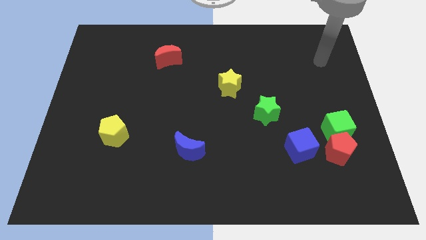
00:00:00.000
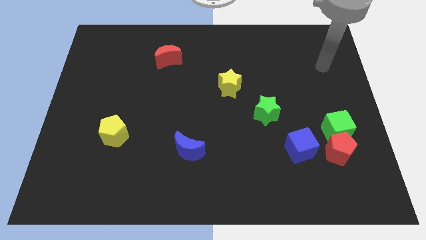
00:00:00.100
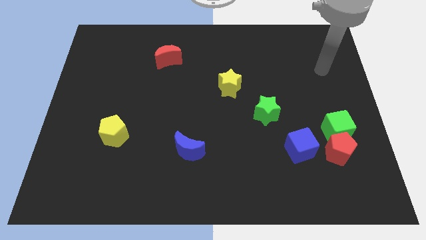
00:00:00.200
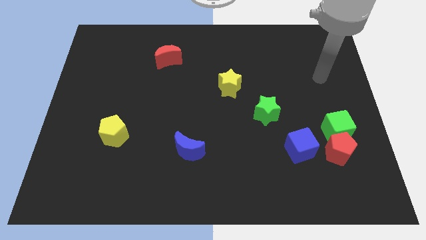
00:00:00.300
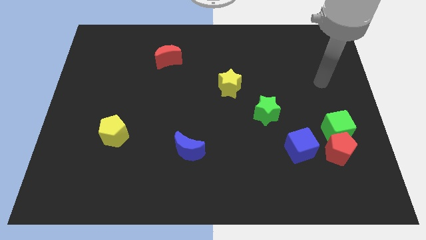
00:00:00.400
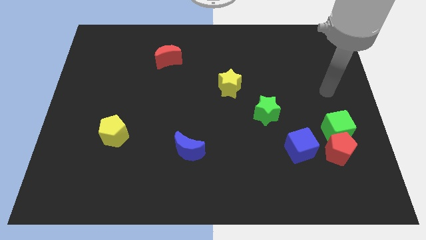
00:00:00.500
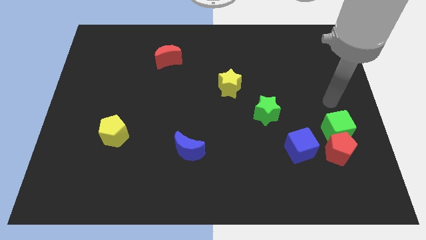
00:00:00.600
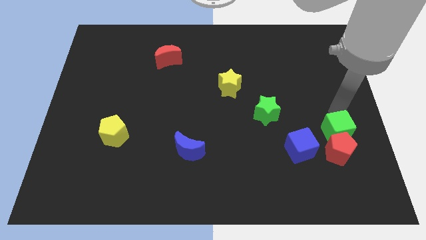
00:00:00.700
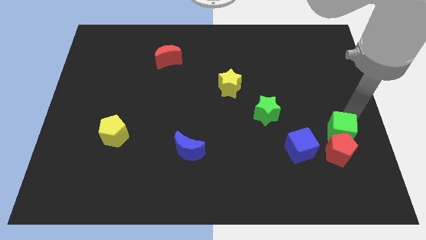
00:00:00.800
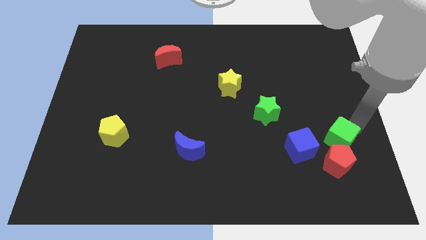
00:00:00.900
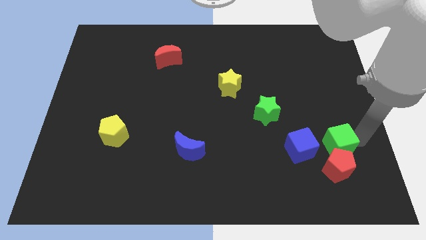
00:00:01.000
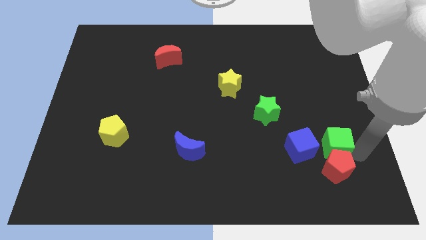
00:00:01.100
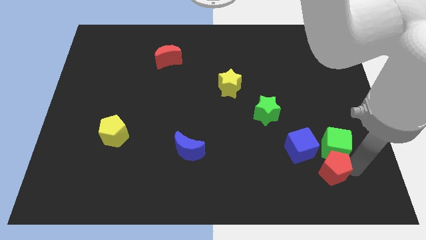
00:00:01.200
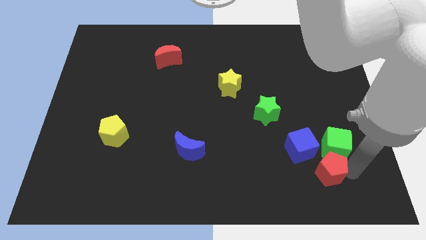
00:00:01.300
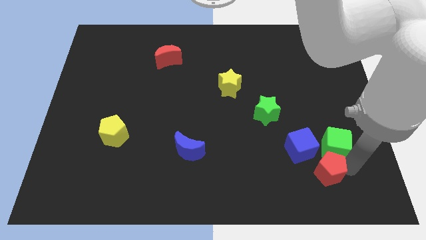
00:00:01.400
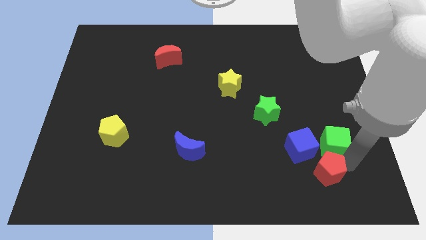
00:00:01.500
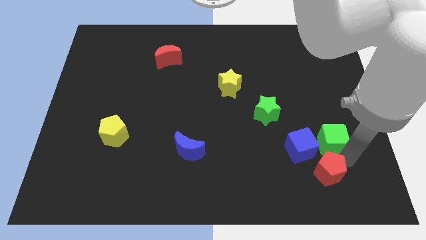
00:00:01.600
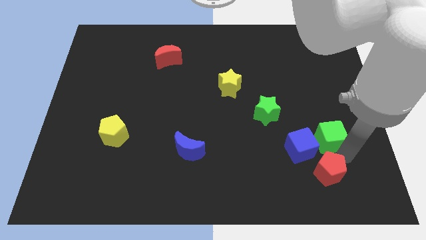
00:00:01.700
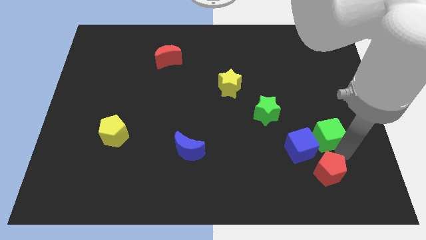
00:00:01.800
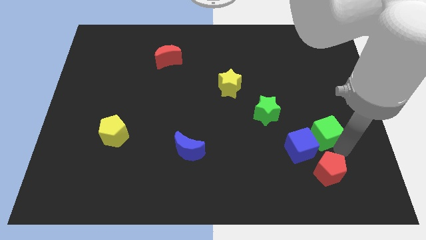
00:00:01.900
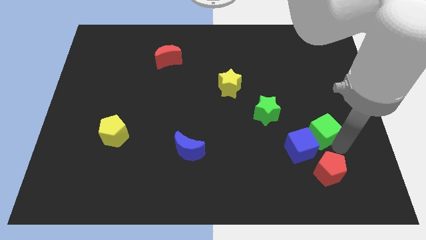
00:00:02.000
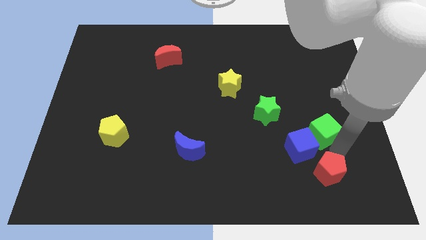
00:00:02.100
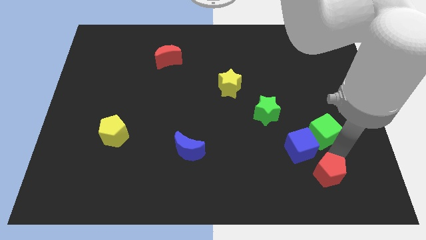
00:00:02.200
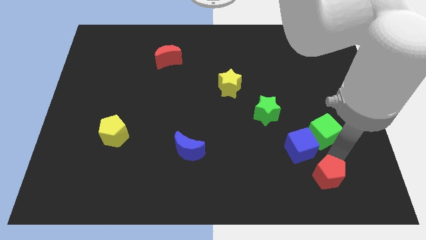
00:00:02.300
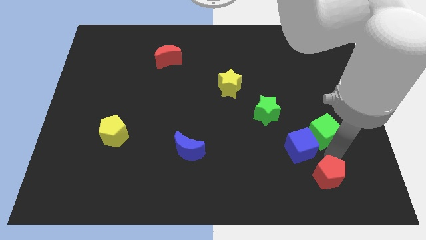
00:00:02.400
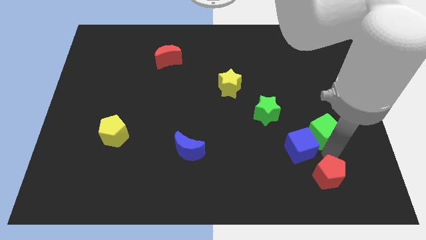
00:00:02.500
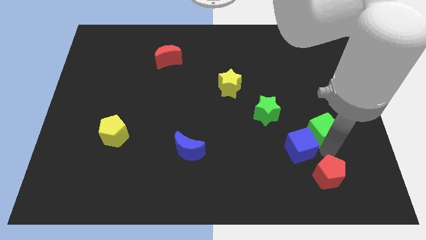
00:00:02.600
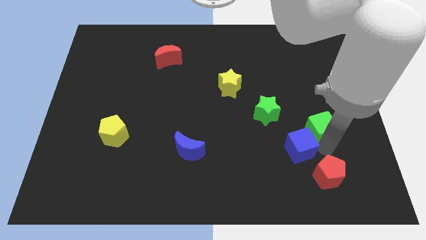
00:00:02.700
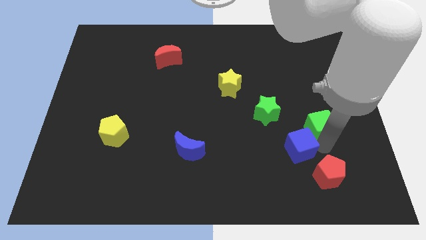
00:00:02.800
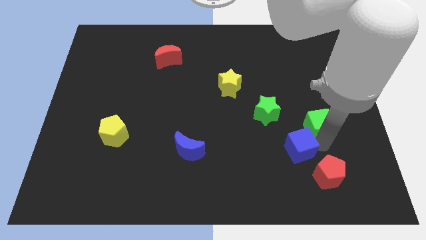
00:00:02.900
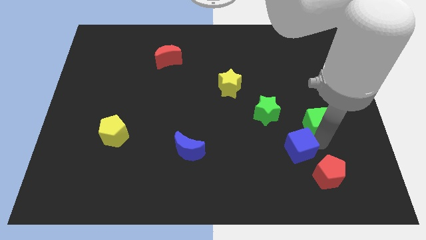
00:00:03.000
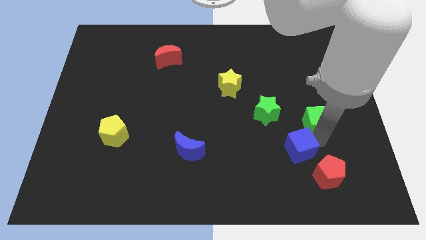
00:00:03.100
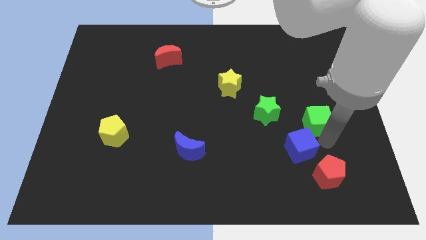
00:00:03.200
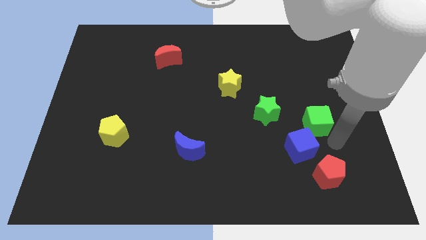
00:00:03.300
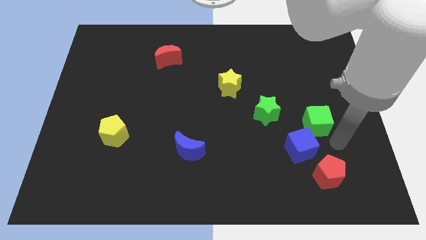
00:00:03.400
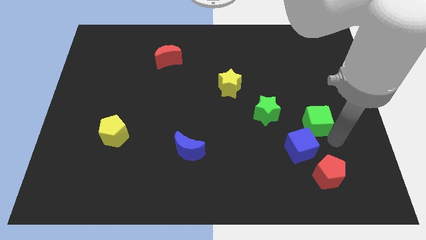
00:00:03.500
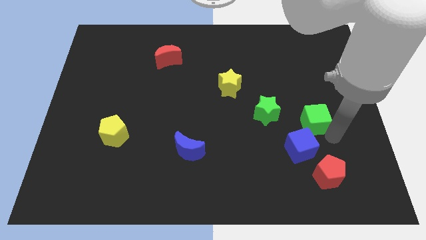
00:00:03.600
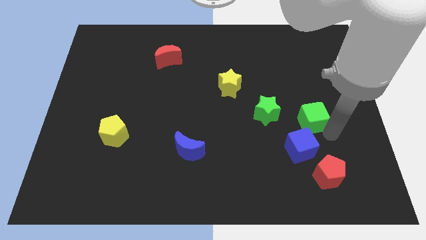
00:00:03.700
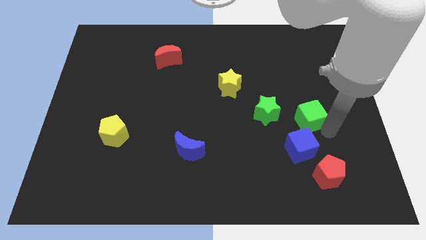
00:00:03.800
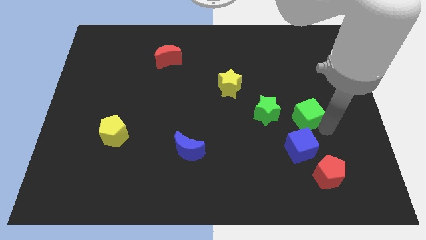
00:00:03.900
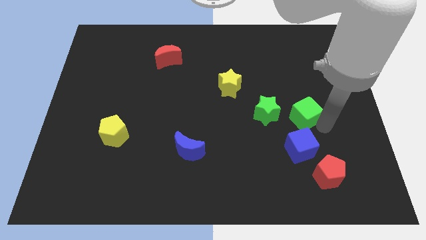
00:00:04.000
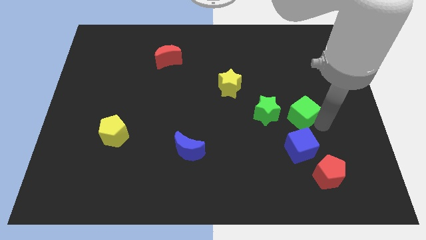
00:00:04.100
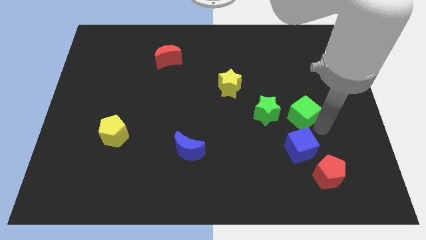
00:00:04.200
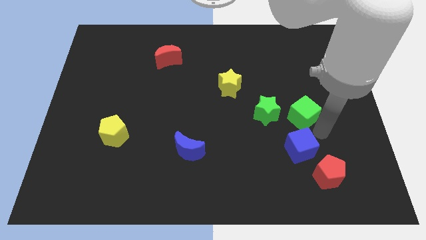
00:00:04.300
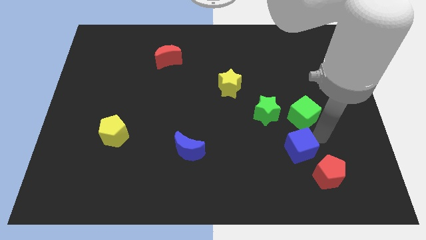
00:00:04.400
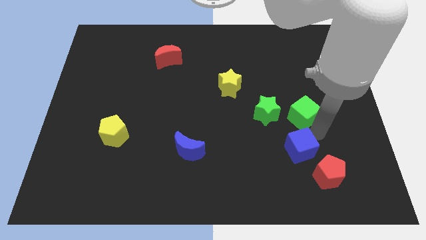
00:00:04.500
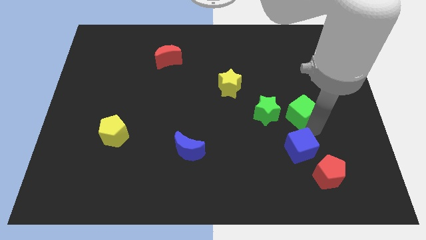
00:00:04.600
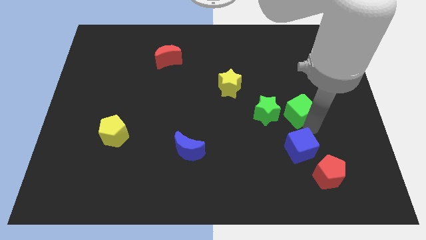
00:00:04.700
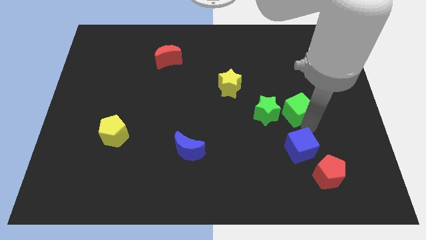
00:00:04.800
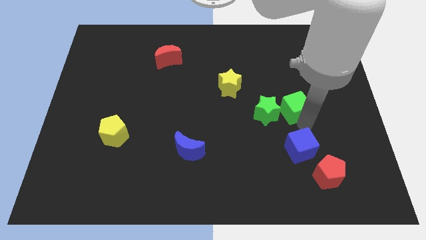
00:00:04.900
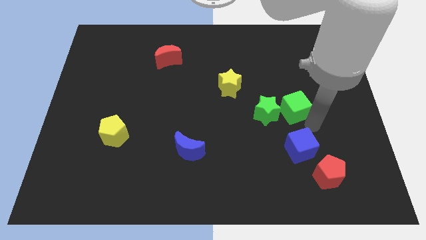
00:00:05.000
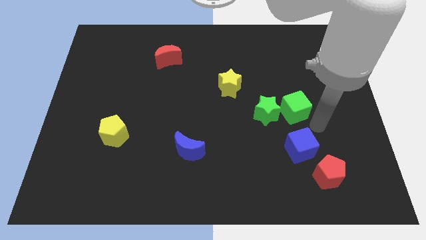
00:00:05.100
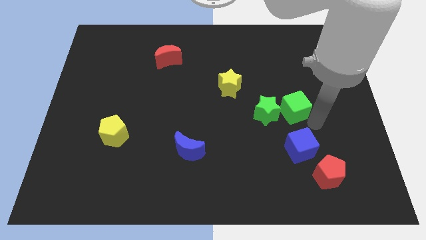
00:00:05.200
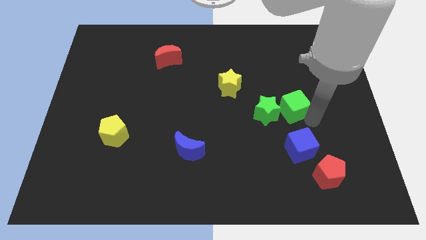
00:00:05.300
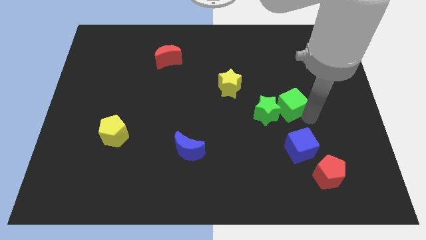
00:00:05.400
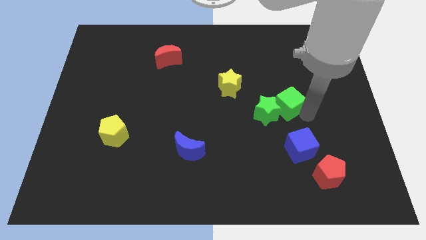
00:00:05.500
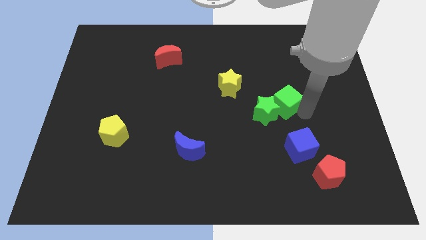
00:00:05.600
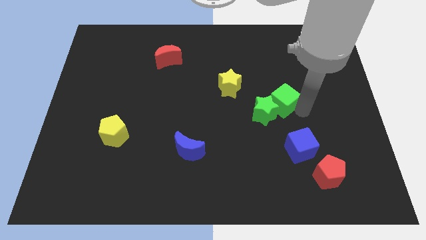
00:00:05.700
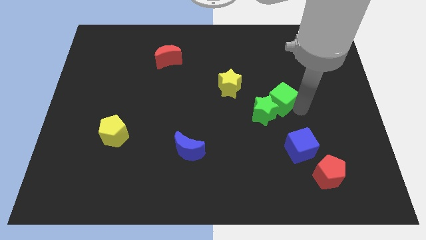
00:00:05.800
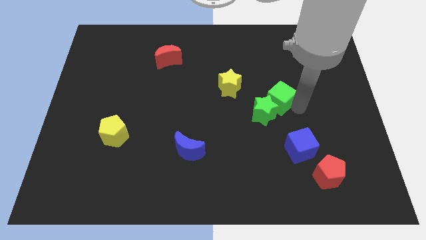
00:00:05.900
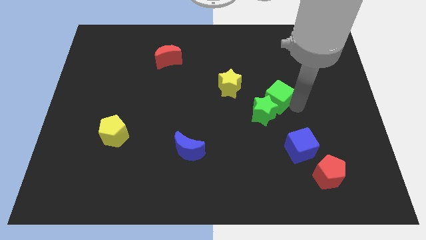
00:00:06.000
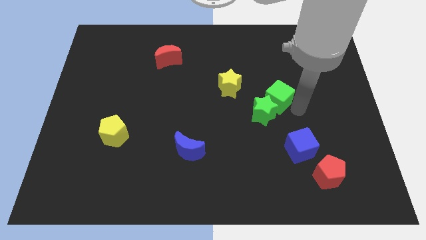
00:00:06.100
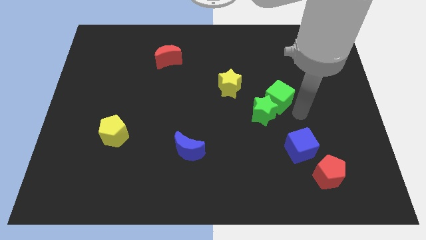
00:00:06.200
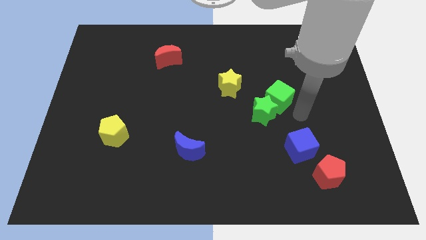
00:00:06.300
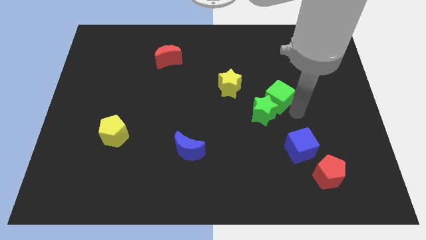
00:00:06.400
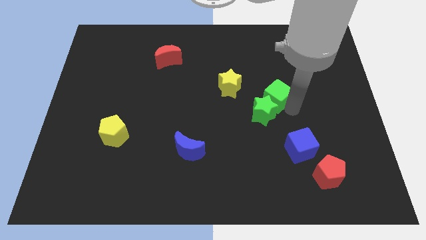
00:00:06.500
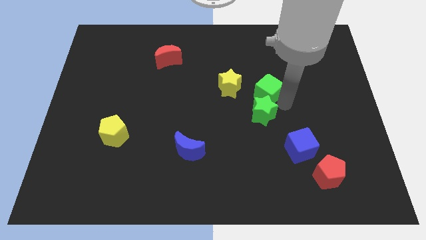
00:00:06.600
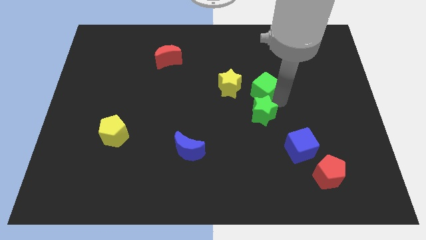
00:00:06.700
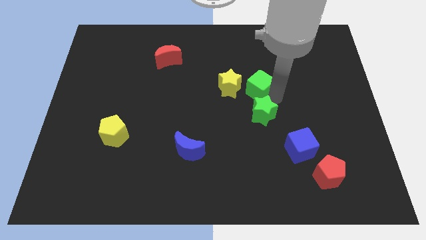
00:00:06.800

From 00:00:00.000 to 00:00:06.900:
move the green cube up and to the left

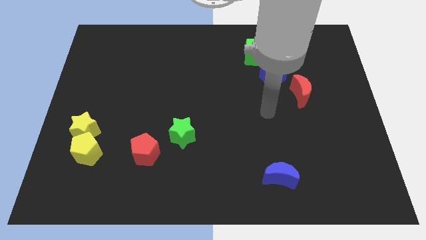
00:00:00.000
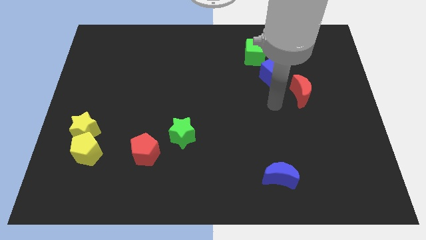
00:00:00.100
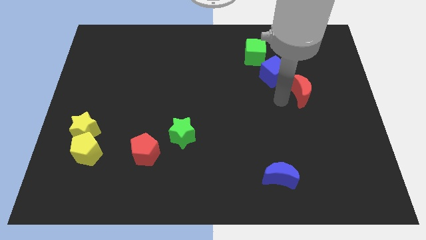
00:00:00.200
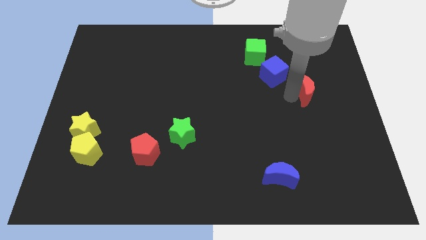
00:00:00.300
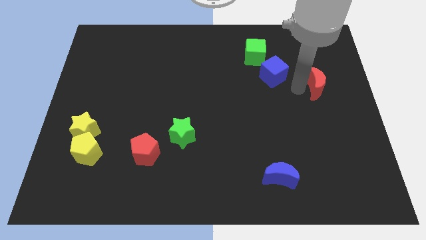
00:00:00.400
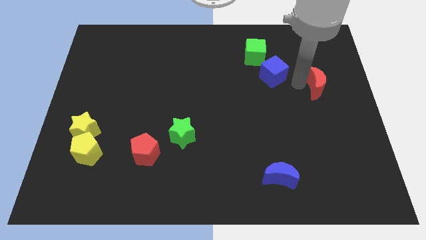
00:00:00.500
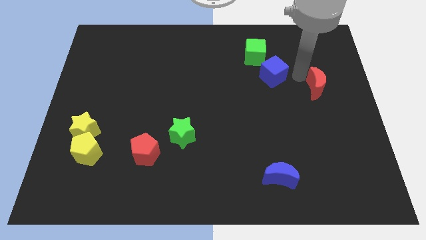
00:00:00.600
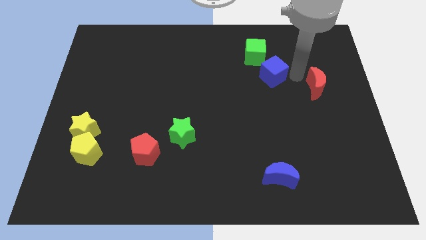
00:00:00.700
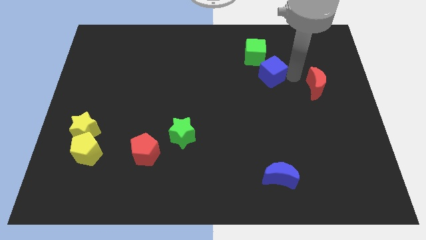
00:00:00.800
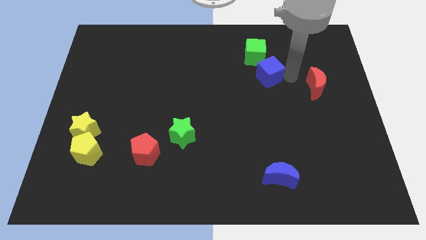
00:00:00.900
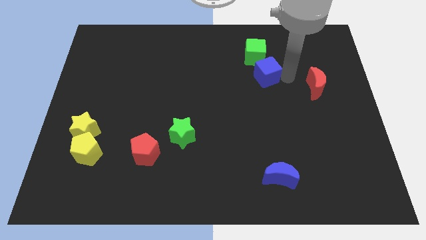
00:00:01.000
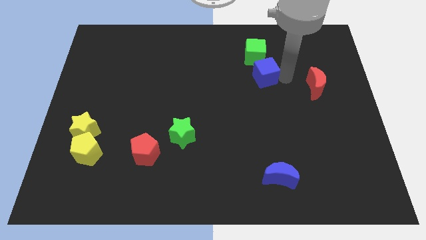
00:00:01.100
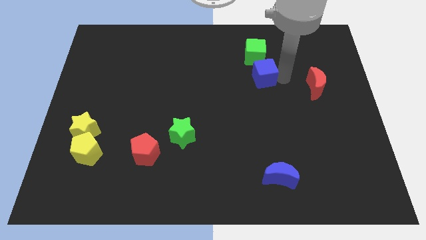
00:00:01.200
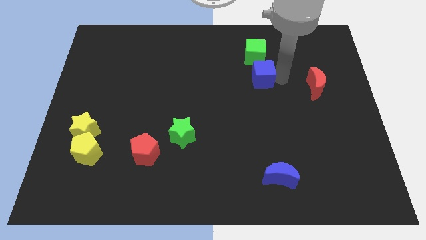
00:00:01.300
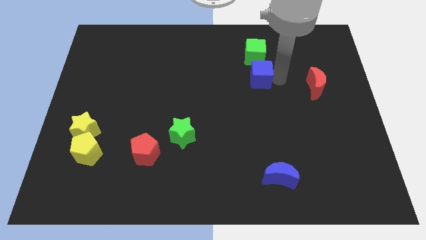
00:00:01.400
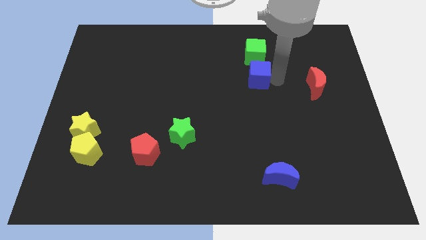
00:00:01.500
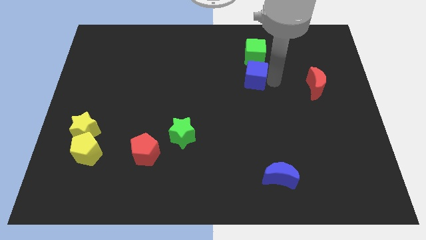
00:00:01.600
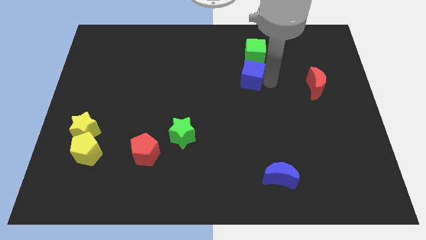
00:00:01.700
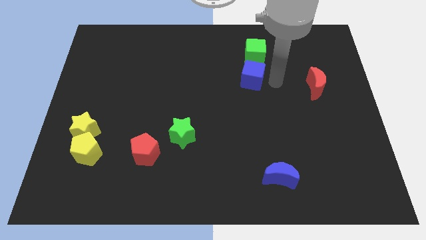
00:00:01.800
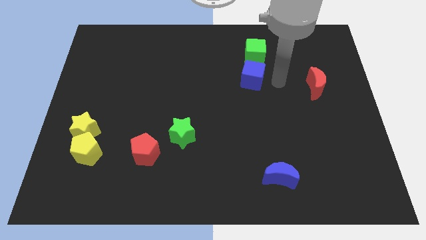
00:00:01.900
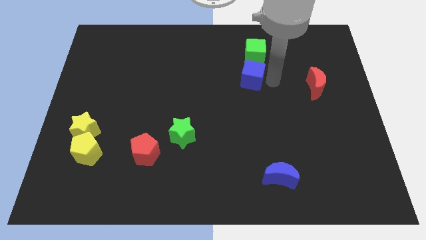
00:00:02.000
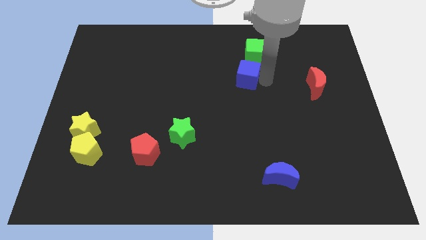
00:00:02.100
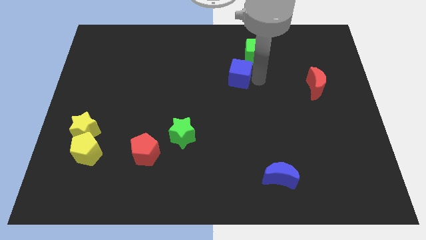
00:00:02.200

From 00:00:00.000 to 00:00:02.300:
slightly slide the blue cube to the left
